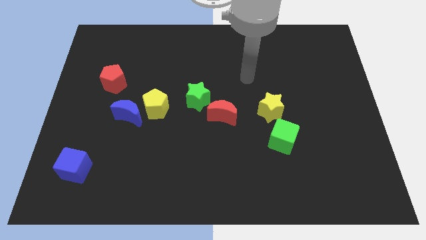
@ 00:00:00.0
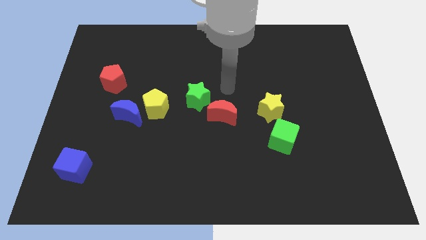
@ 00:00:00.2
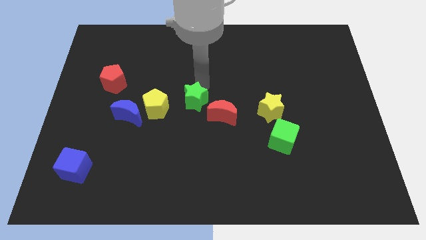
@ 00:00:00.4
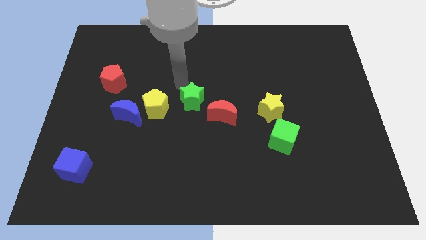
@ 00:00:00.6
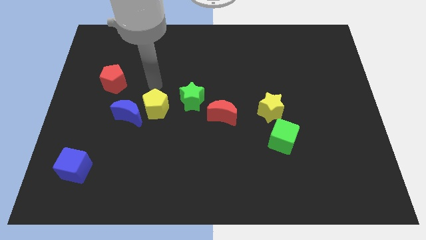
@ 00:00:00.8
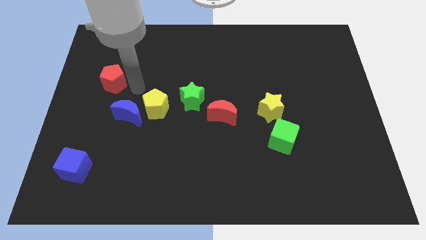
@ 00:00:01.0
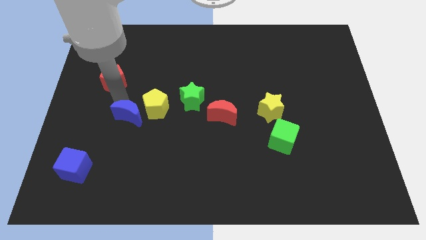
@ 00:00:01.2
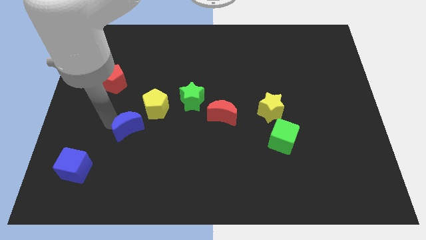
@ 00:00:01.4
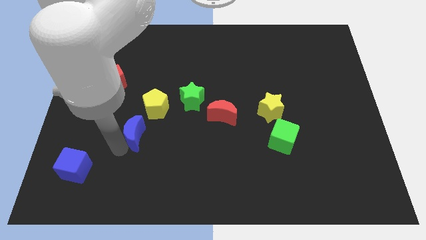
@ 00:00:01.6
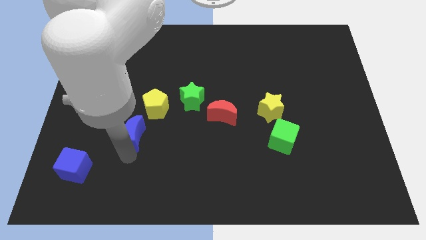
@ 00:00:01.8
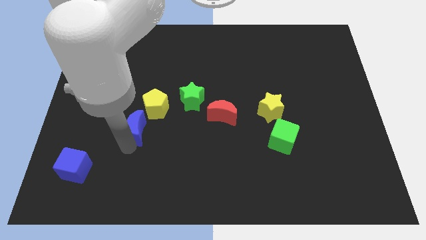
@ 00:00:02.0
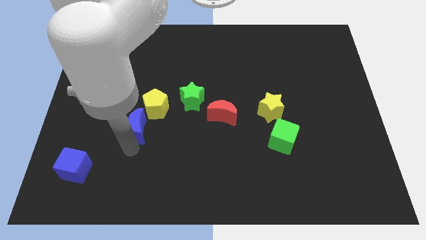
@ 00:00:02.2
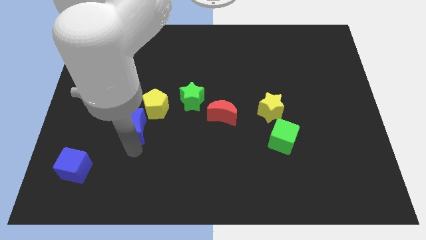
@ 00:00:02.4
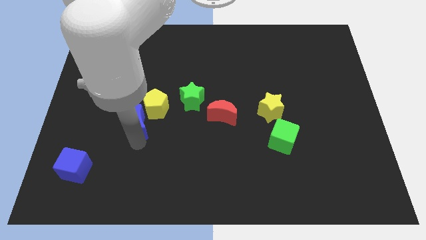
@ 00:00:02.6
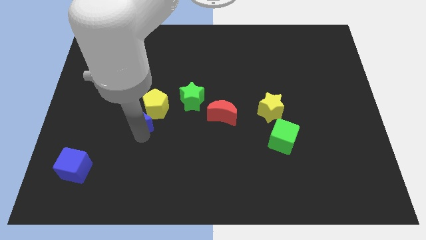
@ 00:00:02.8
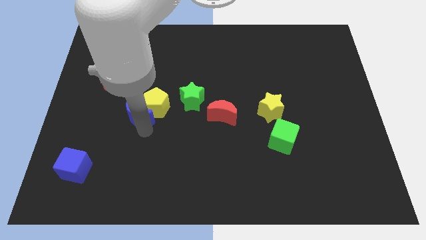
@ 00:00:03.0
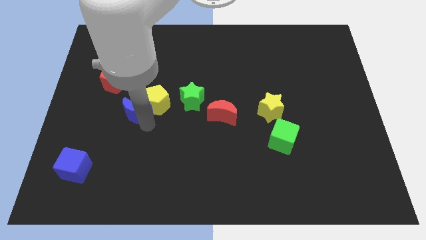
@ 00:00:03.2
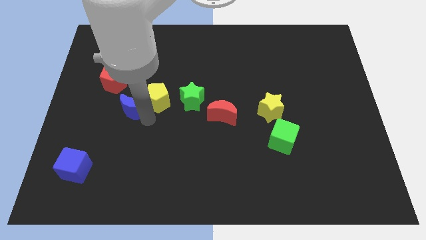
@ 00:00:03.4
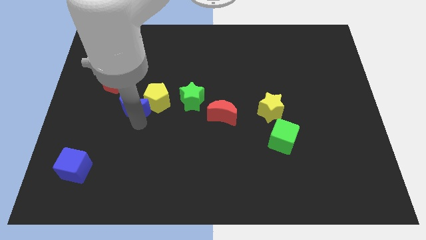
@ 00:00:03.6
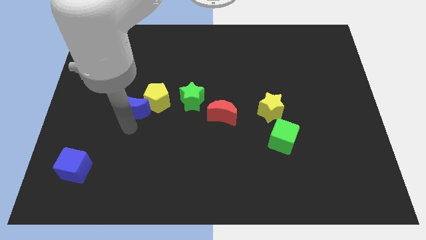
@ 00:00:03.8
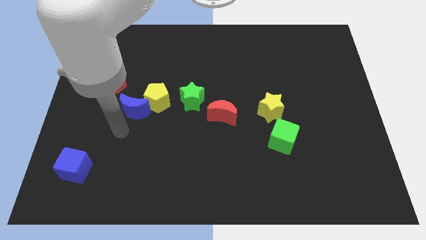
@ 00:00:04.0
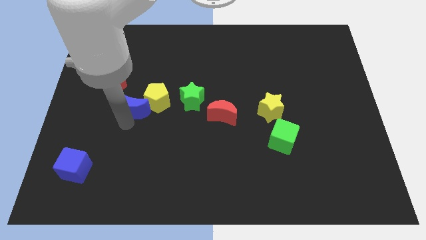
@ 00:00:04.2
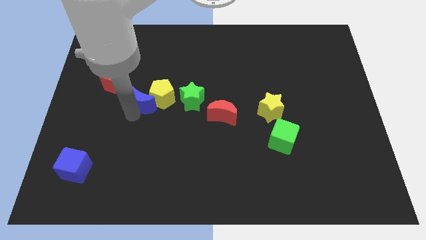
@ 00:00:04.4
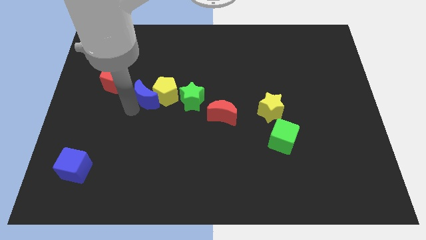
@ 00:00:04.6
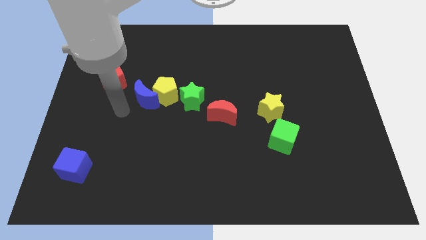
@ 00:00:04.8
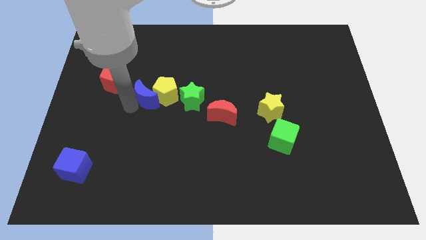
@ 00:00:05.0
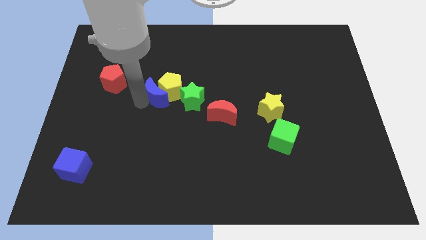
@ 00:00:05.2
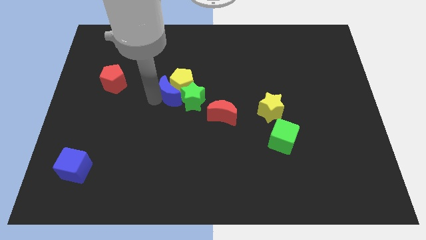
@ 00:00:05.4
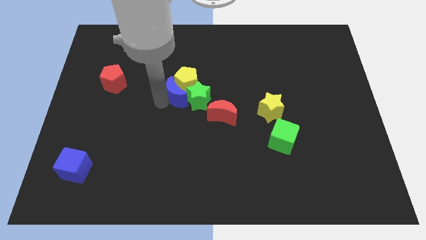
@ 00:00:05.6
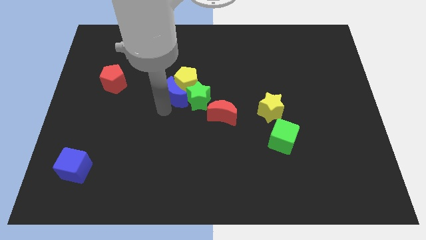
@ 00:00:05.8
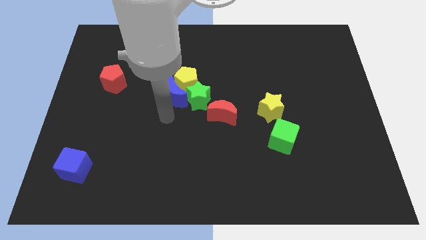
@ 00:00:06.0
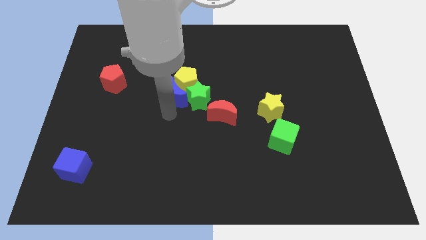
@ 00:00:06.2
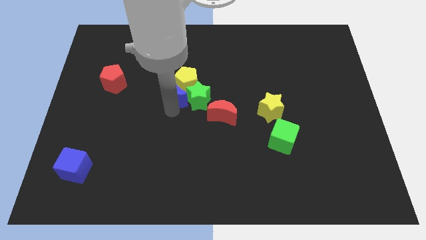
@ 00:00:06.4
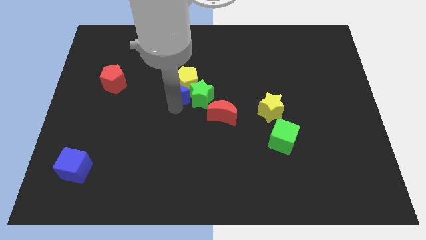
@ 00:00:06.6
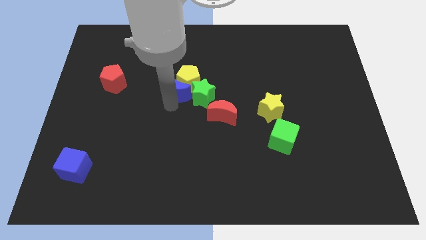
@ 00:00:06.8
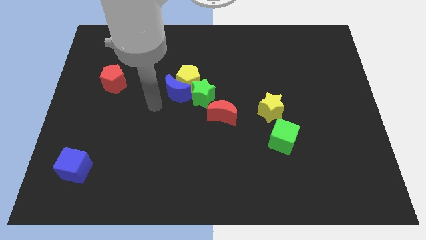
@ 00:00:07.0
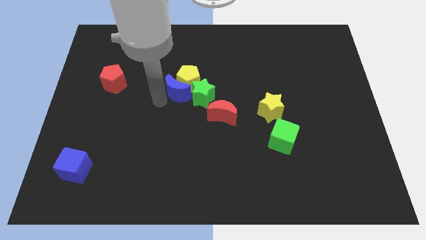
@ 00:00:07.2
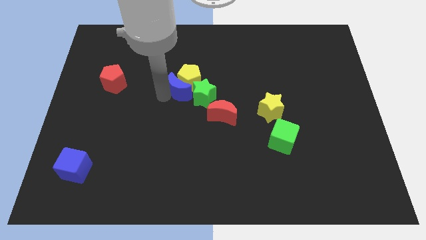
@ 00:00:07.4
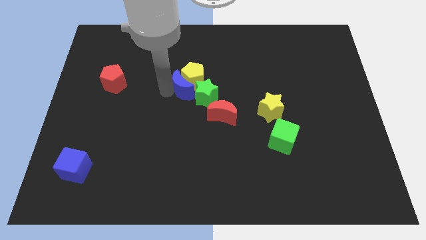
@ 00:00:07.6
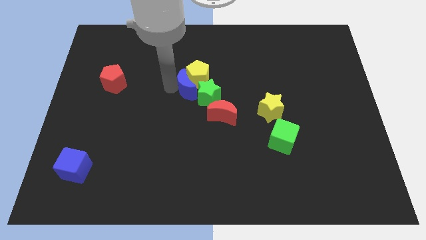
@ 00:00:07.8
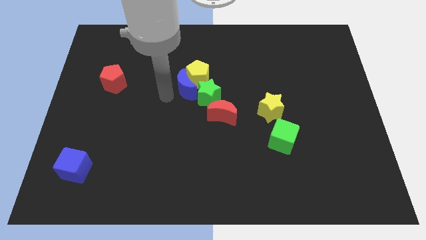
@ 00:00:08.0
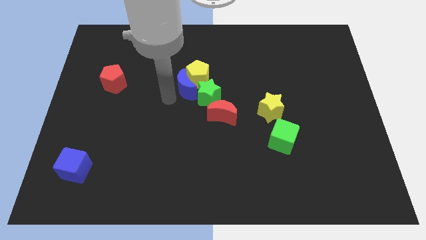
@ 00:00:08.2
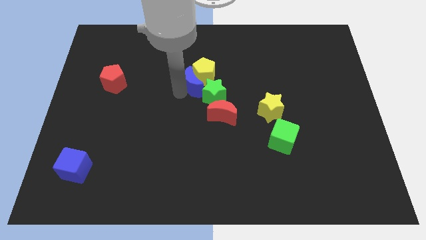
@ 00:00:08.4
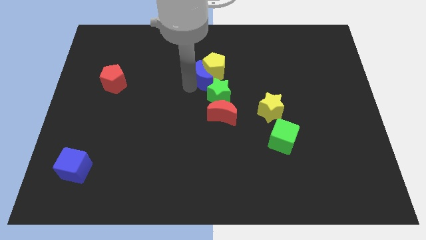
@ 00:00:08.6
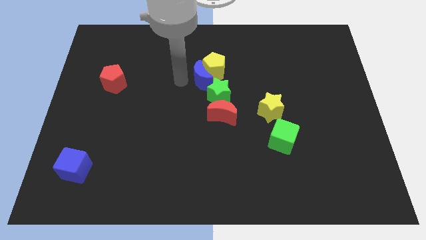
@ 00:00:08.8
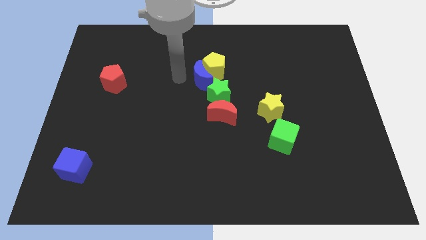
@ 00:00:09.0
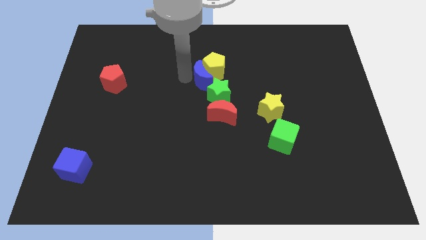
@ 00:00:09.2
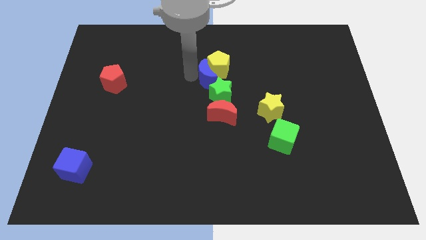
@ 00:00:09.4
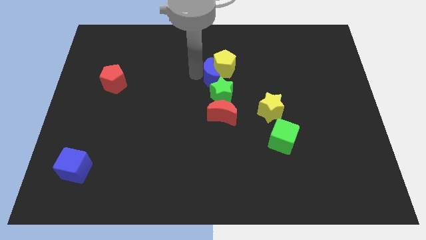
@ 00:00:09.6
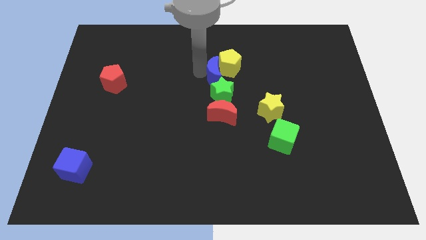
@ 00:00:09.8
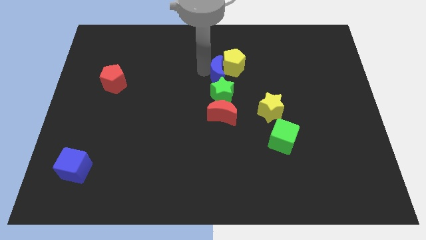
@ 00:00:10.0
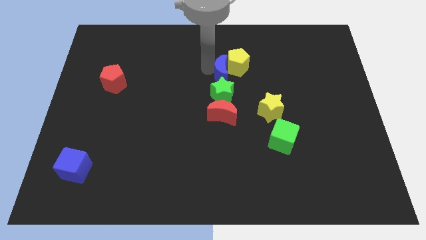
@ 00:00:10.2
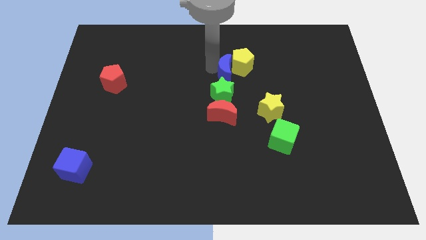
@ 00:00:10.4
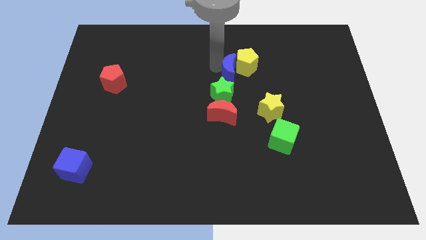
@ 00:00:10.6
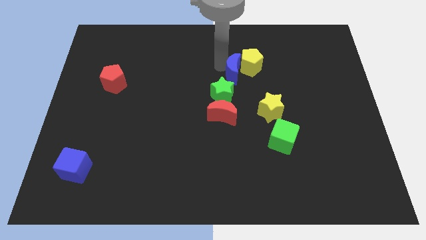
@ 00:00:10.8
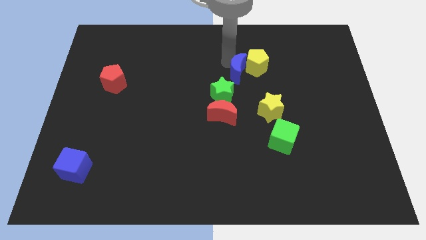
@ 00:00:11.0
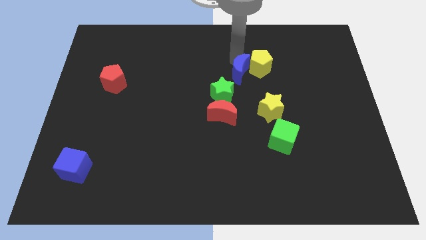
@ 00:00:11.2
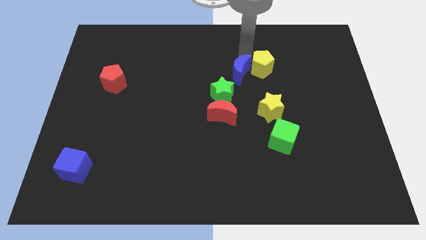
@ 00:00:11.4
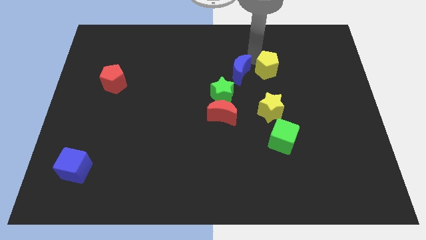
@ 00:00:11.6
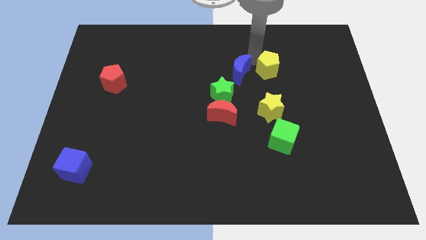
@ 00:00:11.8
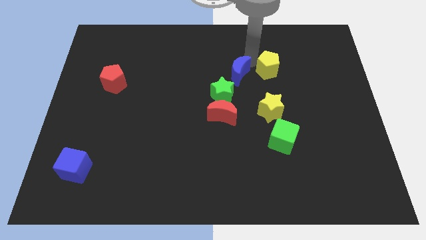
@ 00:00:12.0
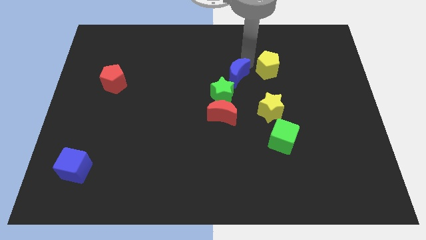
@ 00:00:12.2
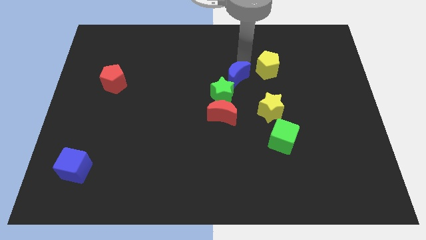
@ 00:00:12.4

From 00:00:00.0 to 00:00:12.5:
slide the blue moon diagonally up and to the left of the yellow star
